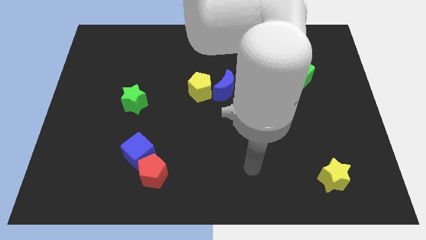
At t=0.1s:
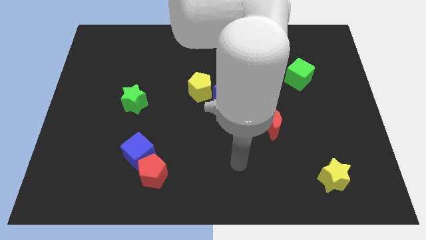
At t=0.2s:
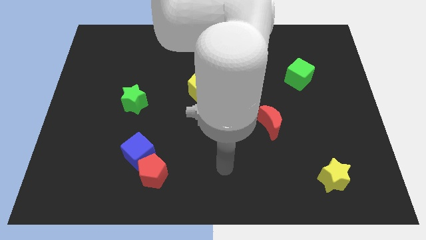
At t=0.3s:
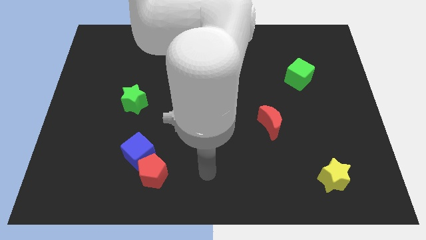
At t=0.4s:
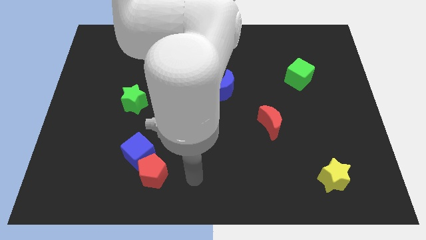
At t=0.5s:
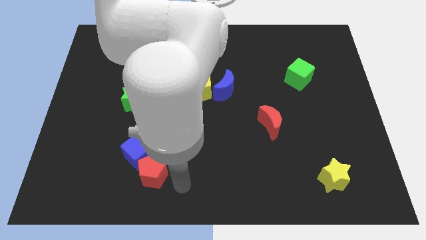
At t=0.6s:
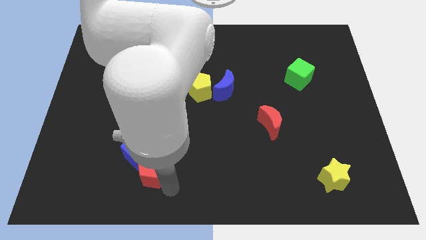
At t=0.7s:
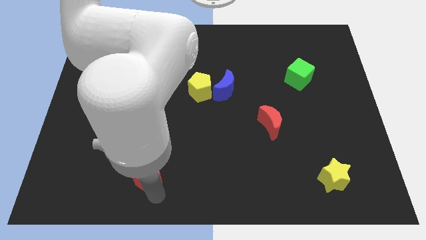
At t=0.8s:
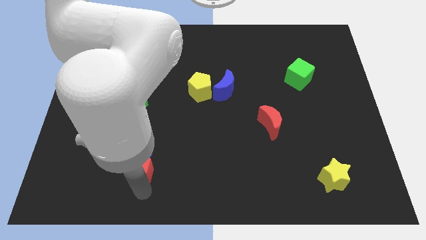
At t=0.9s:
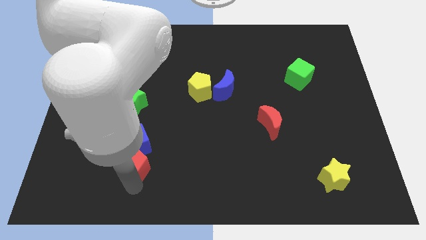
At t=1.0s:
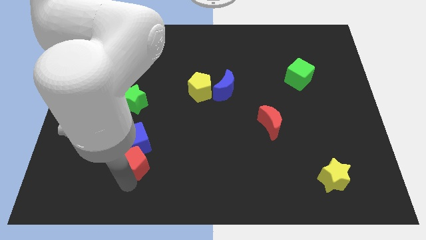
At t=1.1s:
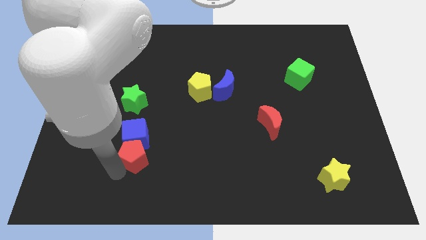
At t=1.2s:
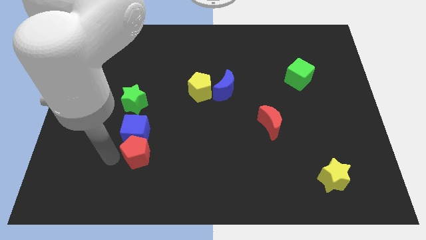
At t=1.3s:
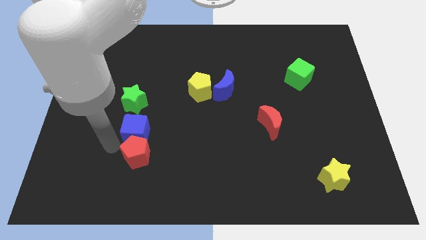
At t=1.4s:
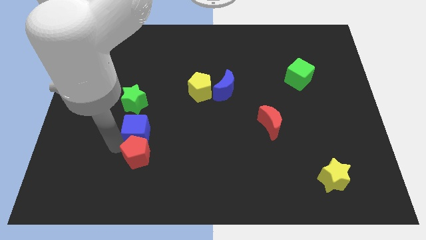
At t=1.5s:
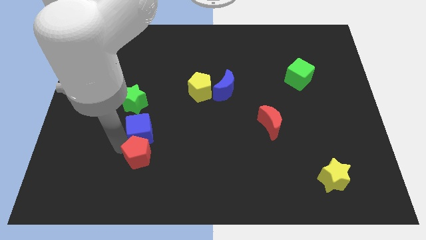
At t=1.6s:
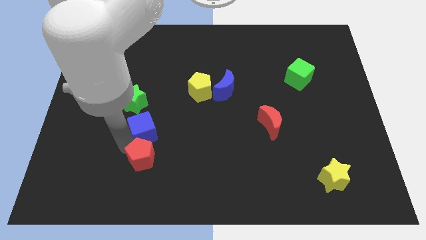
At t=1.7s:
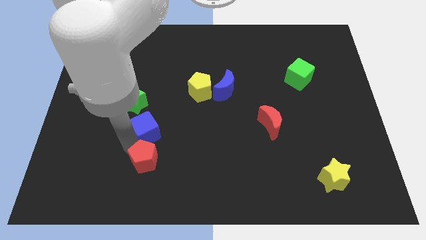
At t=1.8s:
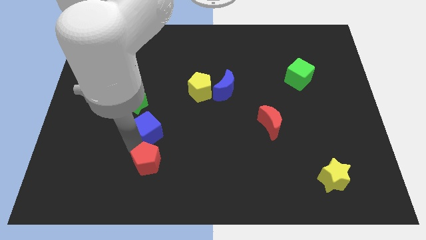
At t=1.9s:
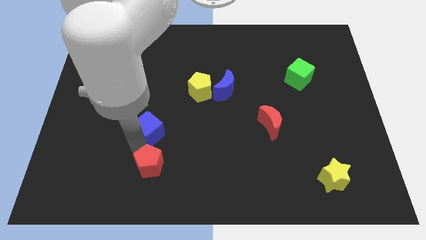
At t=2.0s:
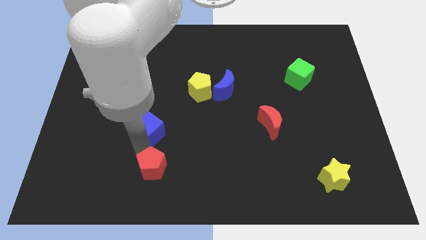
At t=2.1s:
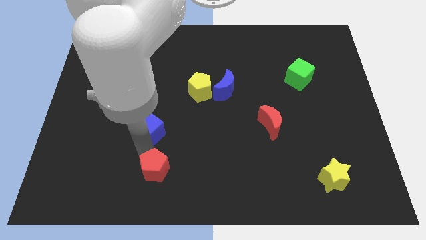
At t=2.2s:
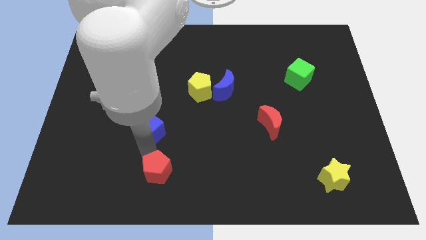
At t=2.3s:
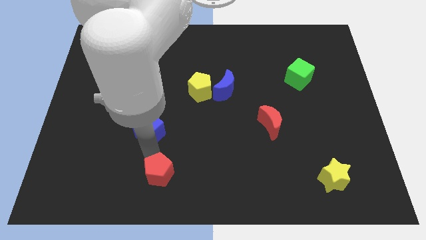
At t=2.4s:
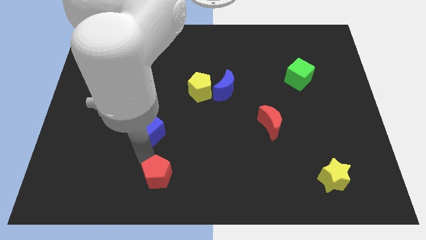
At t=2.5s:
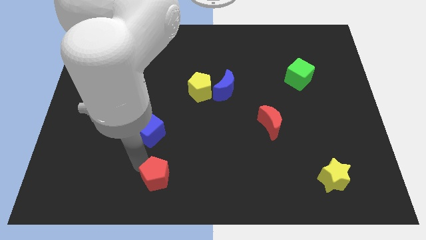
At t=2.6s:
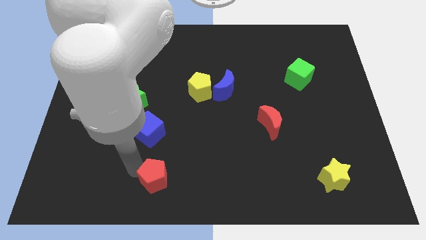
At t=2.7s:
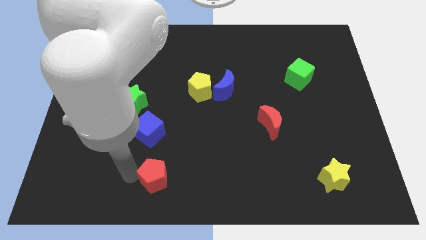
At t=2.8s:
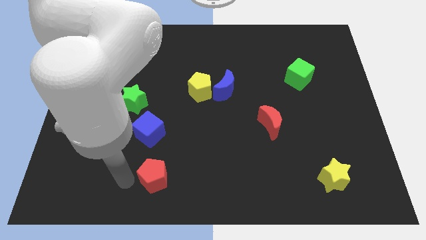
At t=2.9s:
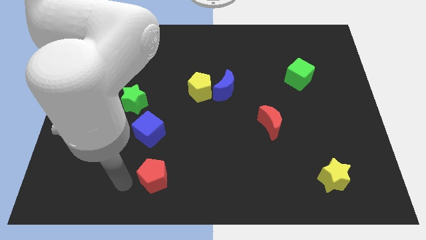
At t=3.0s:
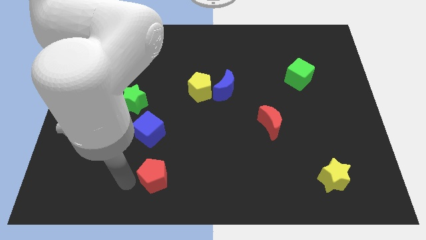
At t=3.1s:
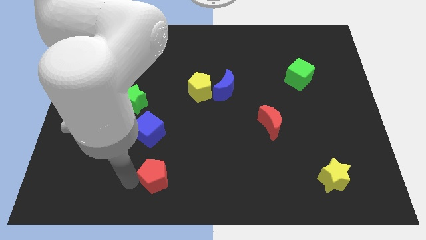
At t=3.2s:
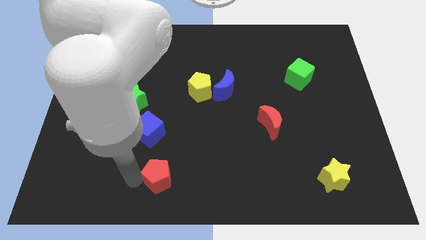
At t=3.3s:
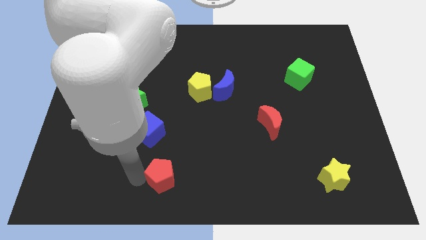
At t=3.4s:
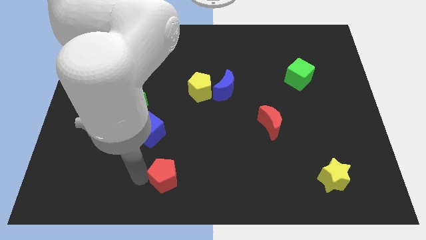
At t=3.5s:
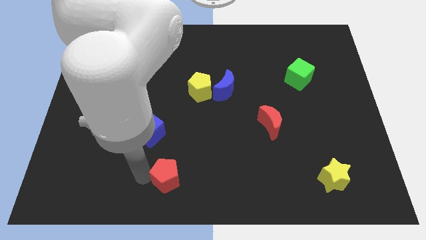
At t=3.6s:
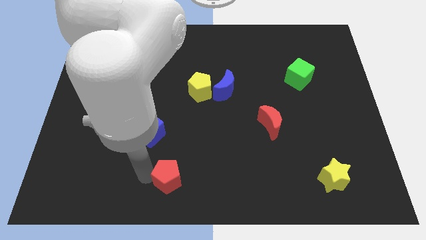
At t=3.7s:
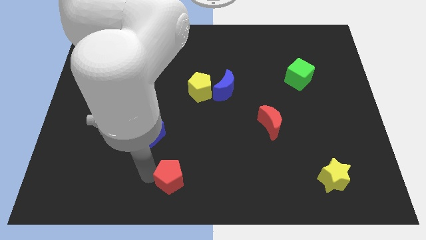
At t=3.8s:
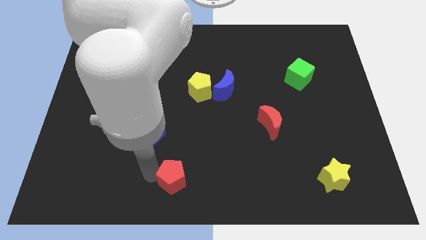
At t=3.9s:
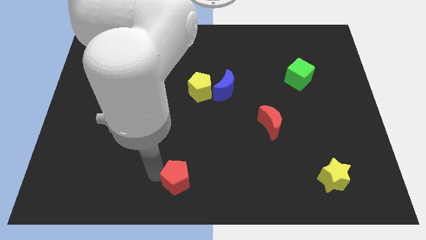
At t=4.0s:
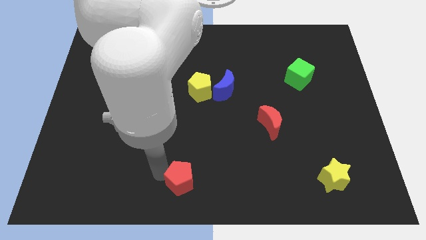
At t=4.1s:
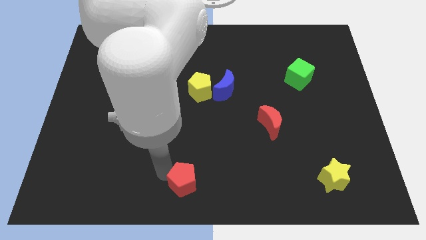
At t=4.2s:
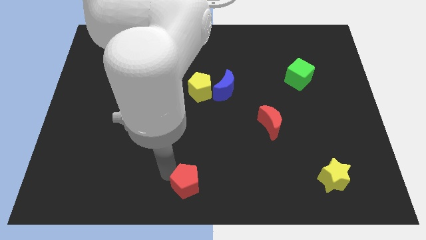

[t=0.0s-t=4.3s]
move the red pentagon a little to the right

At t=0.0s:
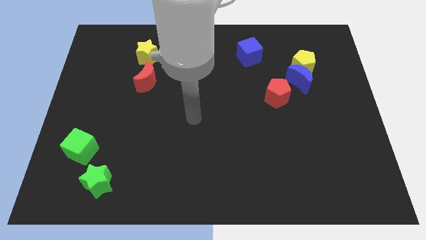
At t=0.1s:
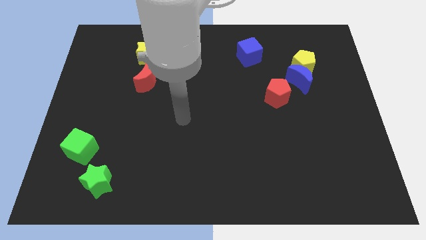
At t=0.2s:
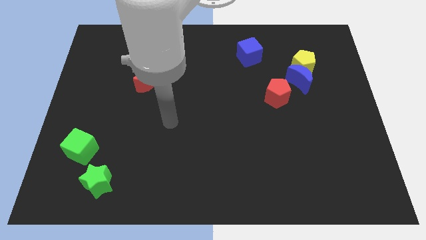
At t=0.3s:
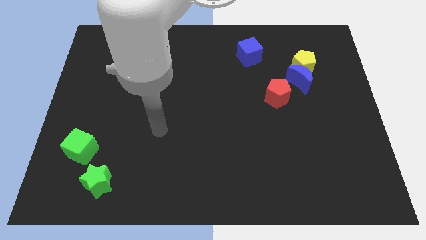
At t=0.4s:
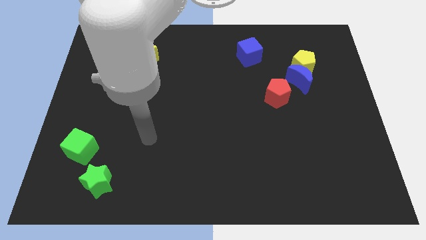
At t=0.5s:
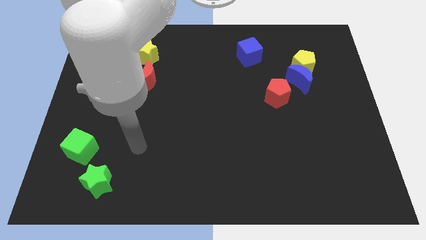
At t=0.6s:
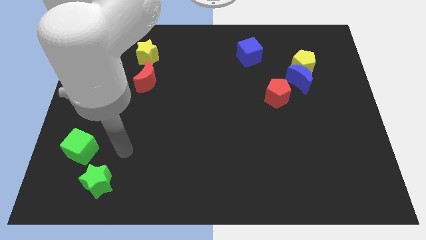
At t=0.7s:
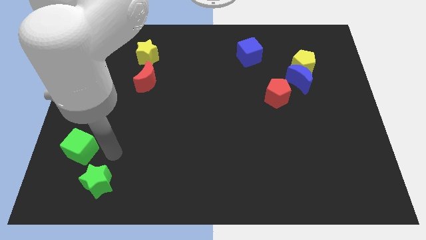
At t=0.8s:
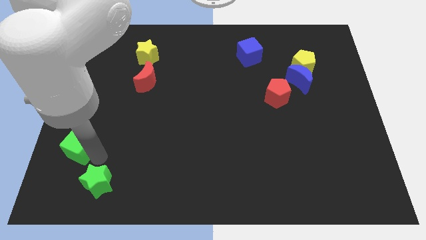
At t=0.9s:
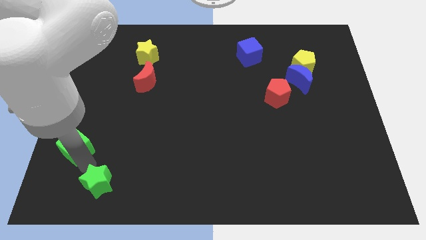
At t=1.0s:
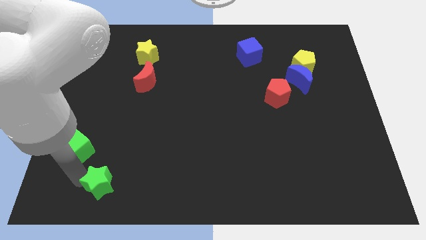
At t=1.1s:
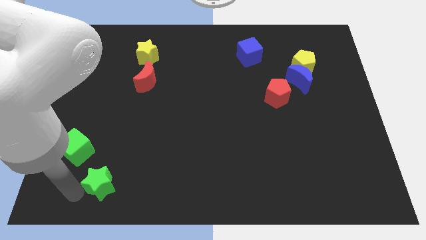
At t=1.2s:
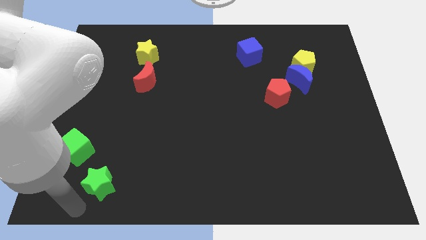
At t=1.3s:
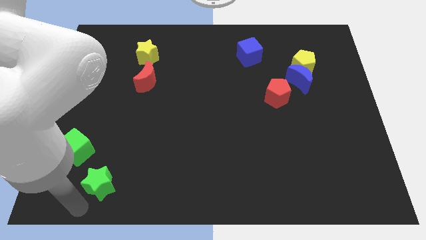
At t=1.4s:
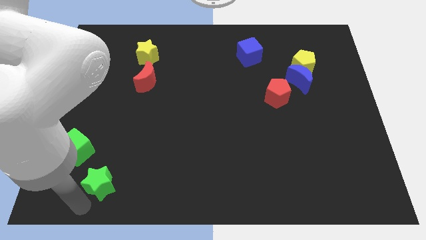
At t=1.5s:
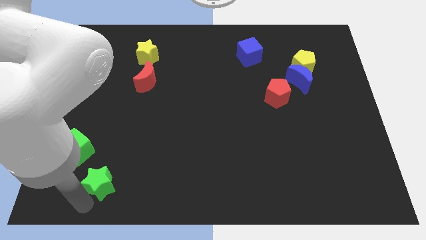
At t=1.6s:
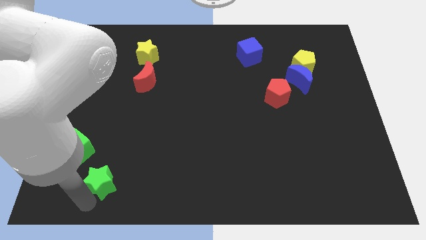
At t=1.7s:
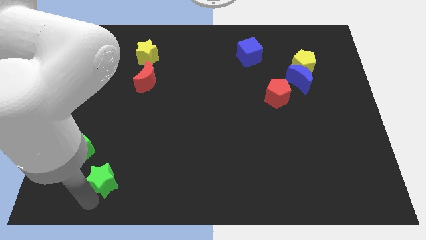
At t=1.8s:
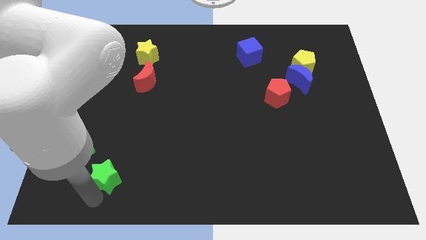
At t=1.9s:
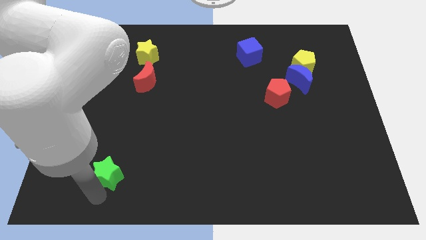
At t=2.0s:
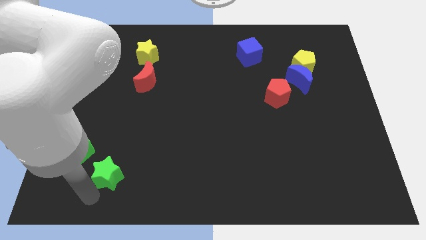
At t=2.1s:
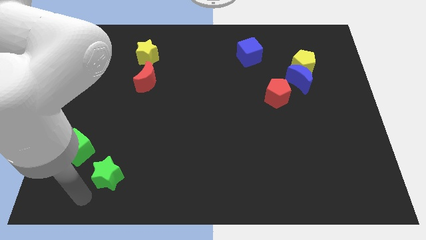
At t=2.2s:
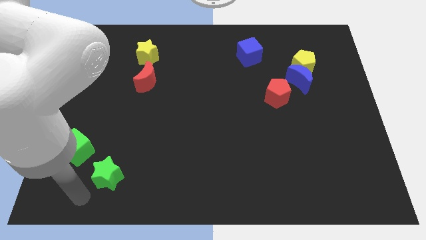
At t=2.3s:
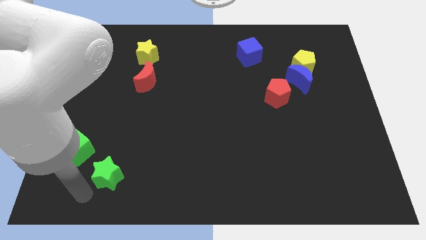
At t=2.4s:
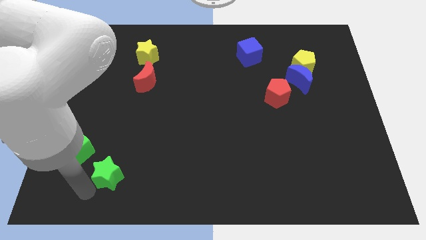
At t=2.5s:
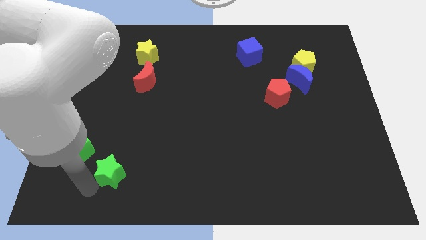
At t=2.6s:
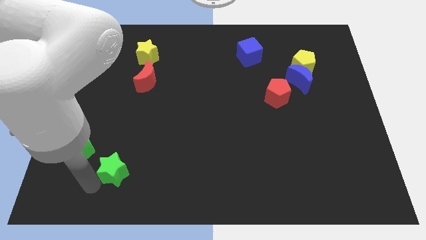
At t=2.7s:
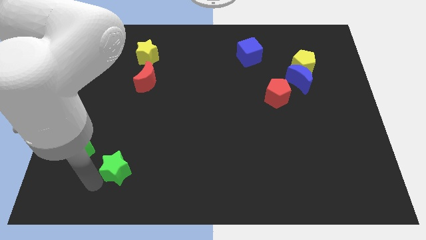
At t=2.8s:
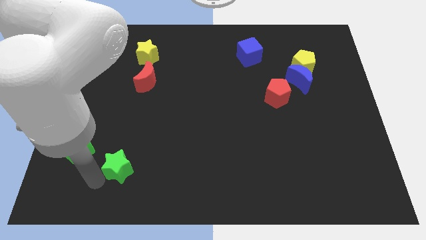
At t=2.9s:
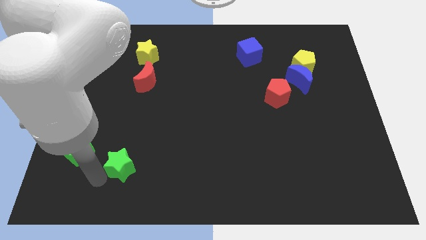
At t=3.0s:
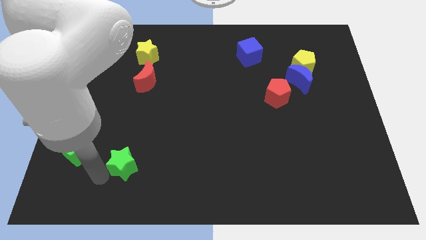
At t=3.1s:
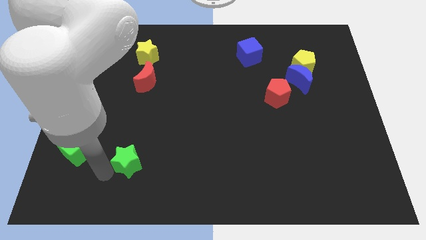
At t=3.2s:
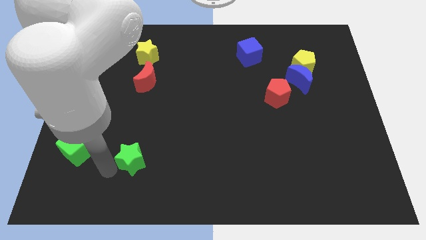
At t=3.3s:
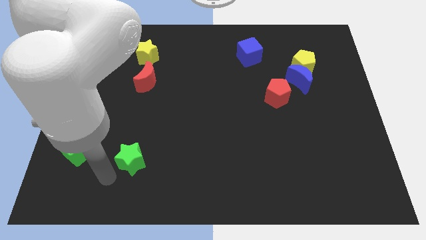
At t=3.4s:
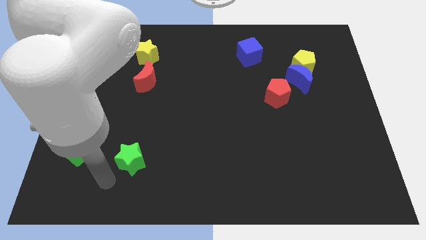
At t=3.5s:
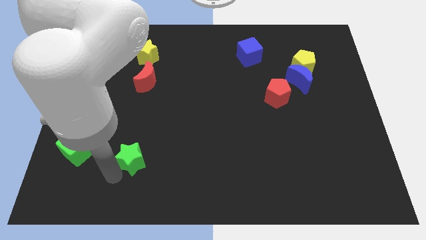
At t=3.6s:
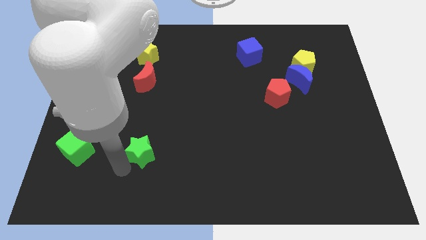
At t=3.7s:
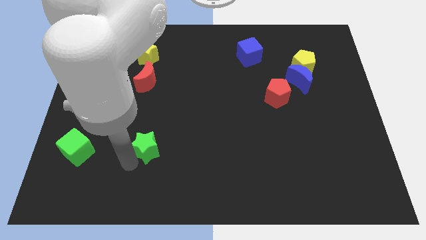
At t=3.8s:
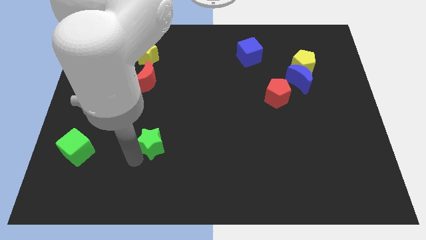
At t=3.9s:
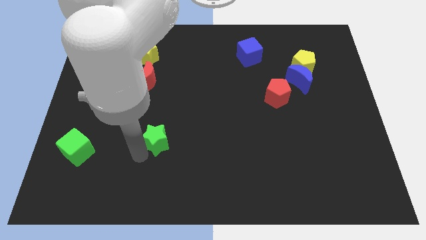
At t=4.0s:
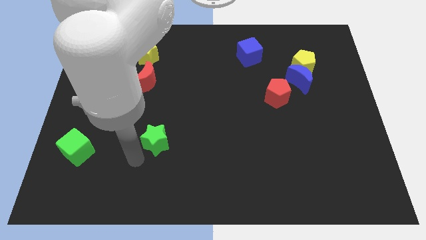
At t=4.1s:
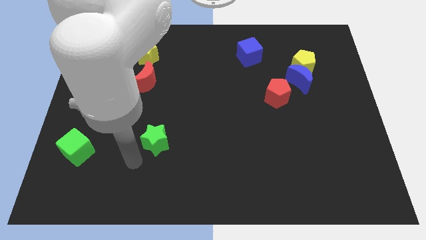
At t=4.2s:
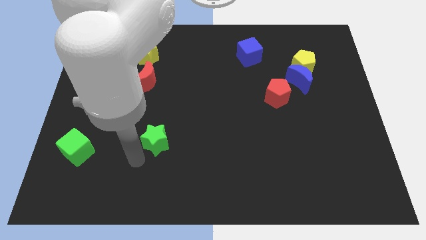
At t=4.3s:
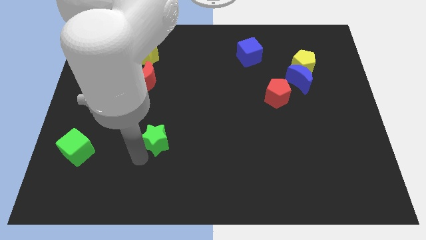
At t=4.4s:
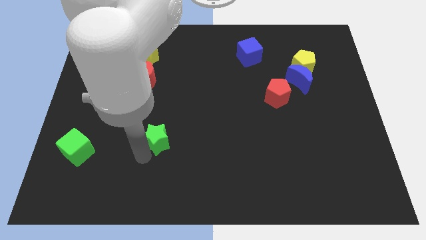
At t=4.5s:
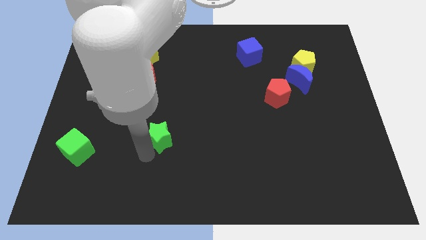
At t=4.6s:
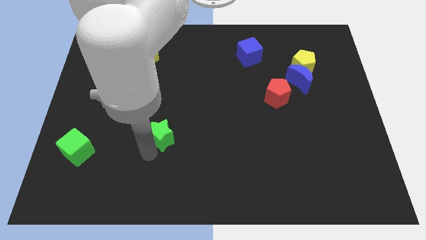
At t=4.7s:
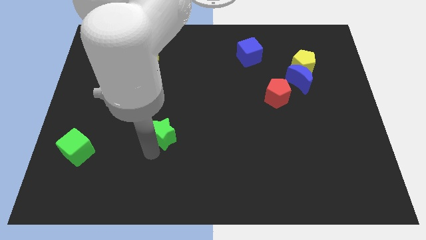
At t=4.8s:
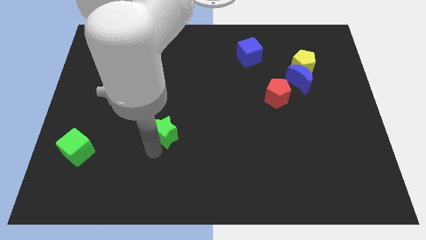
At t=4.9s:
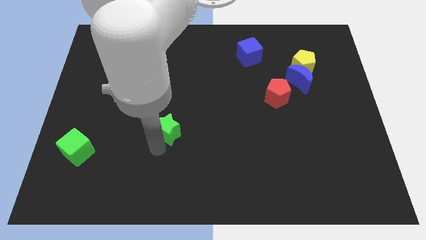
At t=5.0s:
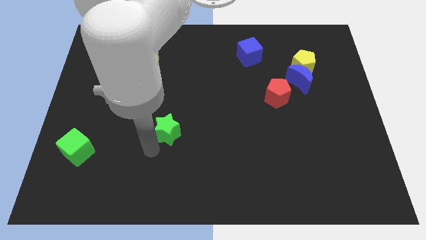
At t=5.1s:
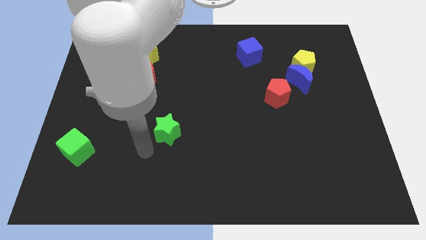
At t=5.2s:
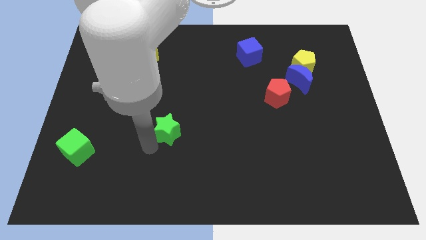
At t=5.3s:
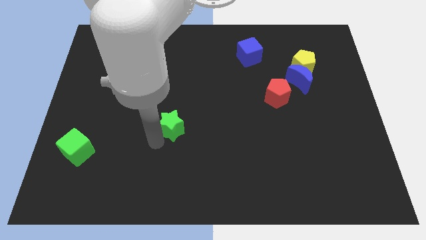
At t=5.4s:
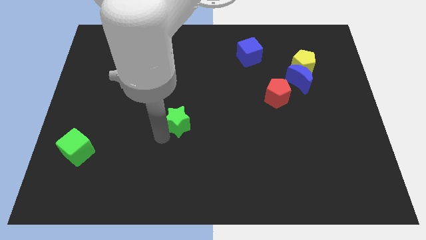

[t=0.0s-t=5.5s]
push the green star up and then right
